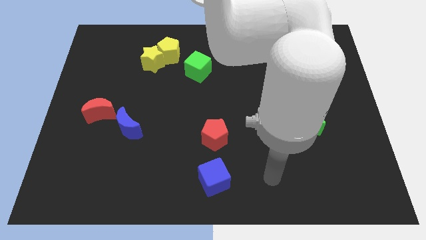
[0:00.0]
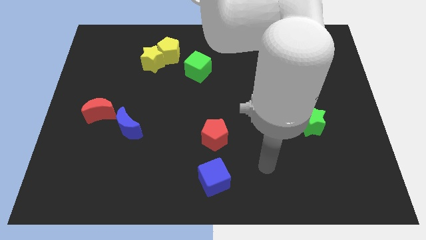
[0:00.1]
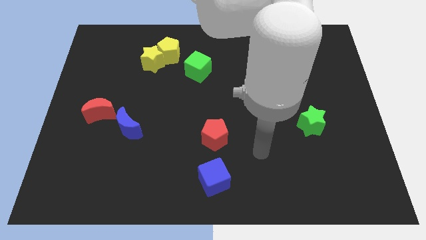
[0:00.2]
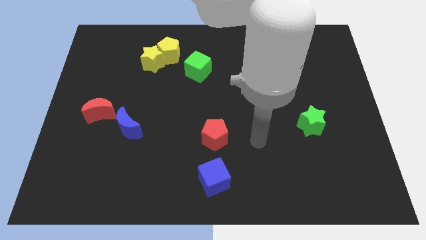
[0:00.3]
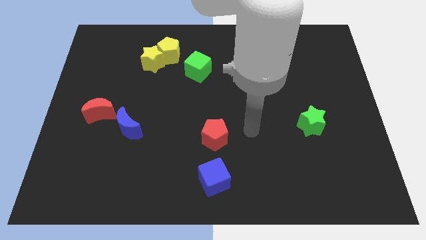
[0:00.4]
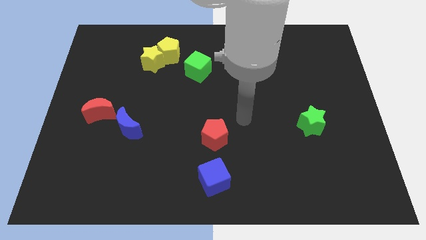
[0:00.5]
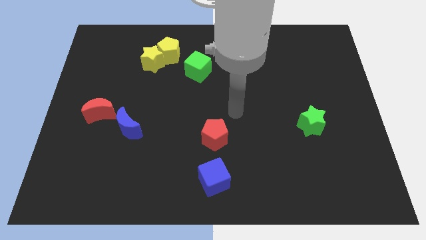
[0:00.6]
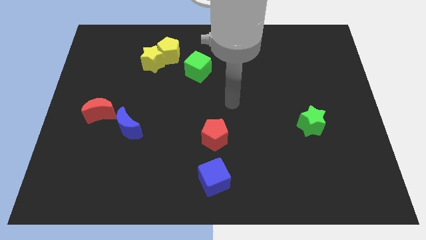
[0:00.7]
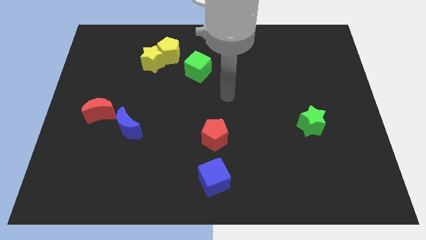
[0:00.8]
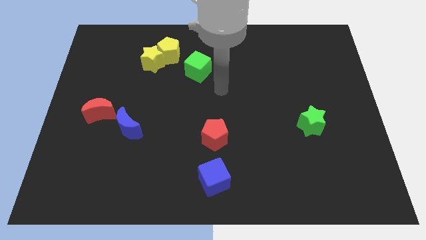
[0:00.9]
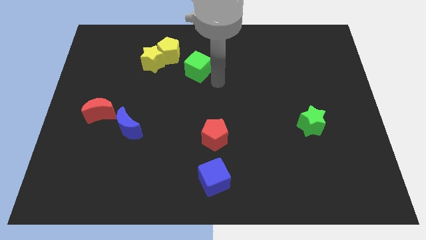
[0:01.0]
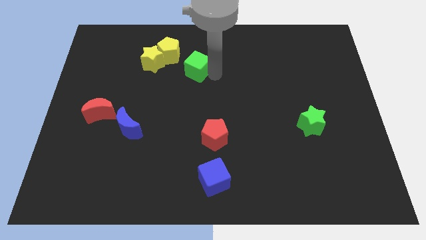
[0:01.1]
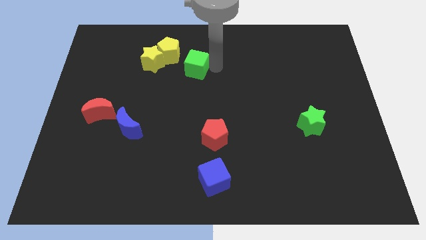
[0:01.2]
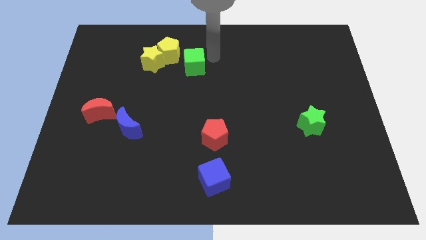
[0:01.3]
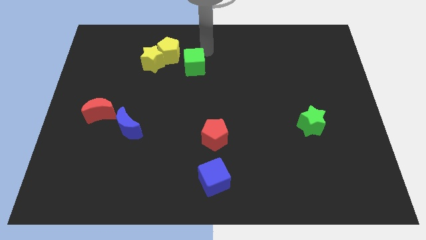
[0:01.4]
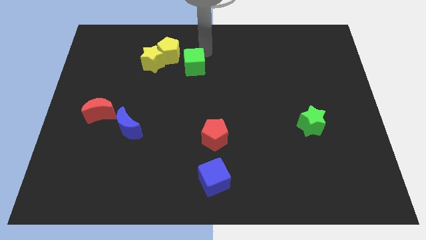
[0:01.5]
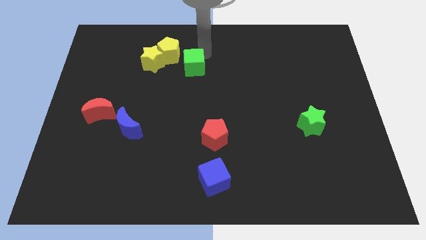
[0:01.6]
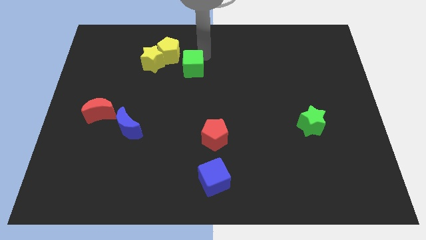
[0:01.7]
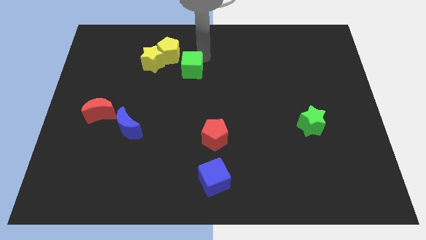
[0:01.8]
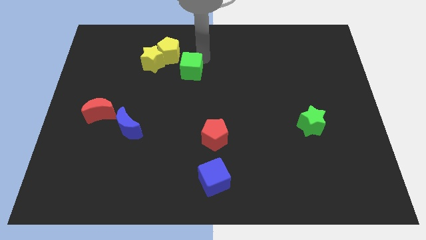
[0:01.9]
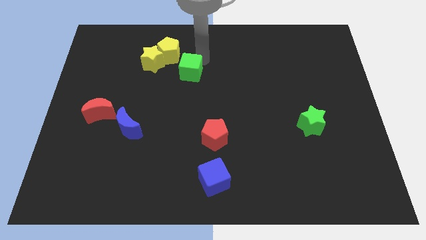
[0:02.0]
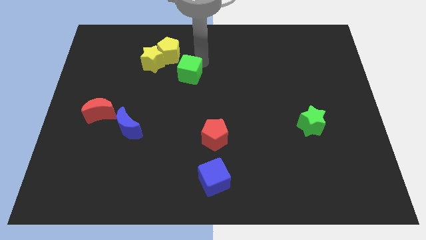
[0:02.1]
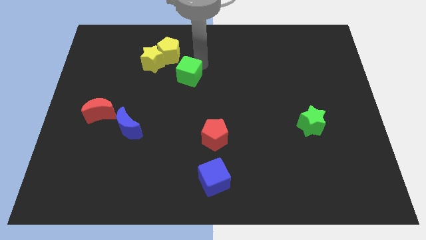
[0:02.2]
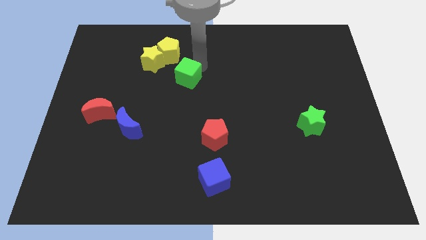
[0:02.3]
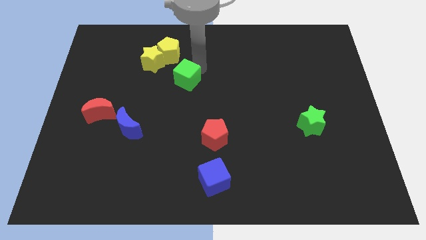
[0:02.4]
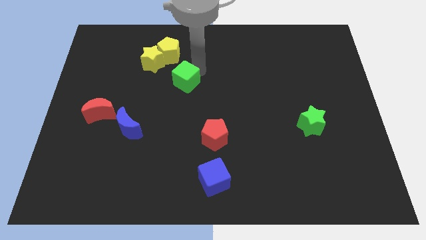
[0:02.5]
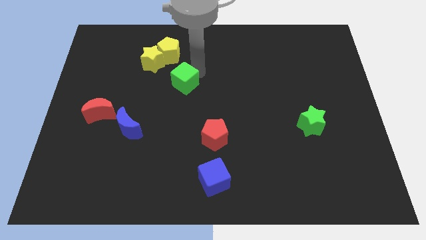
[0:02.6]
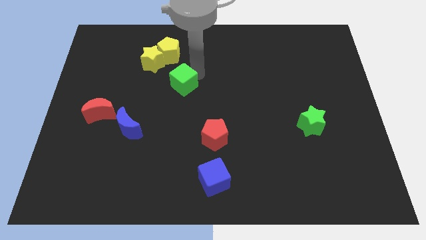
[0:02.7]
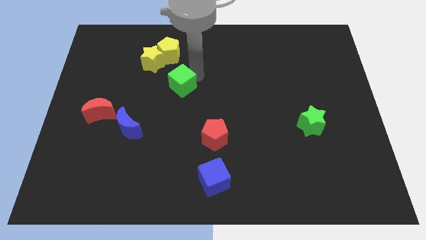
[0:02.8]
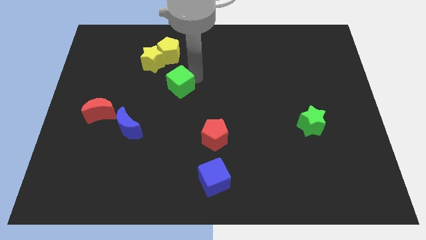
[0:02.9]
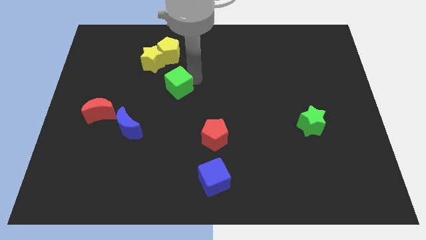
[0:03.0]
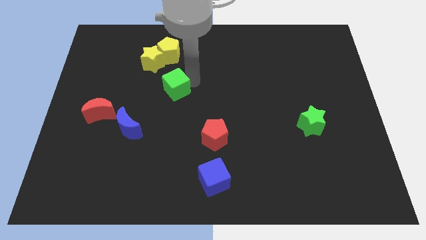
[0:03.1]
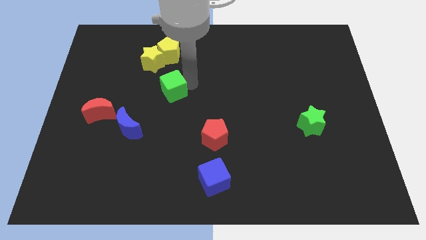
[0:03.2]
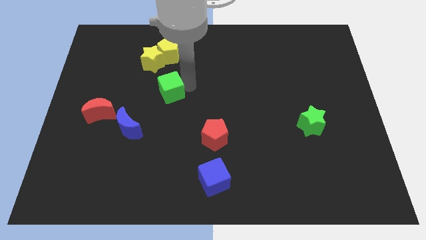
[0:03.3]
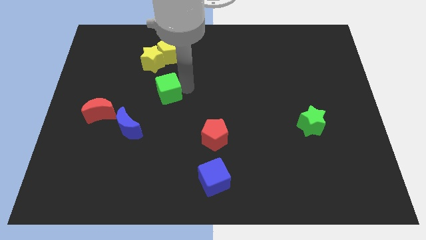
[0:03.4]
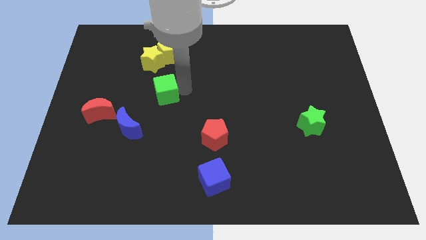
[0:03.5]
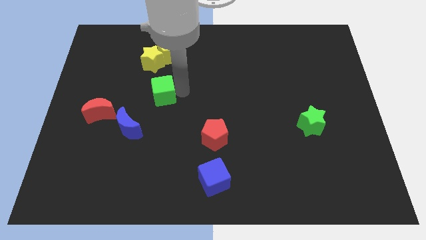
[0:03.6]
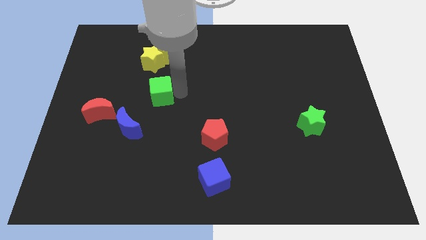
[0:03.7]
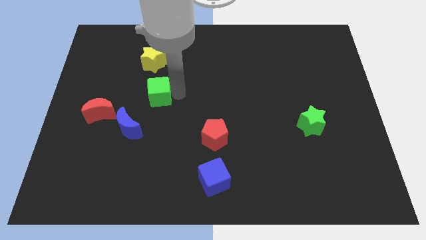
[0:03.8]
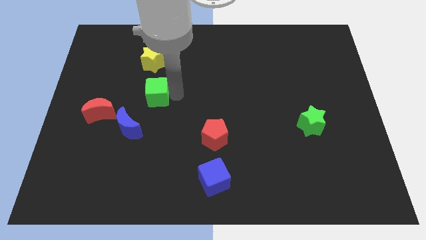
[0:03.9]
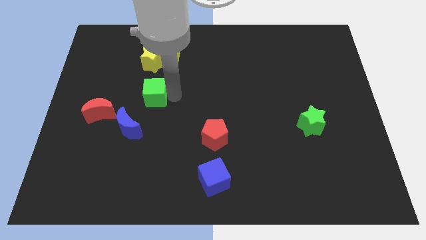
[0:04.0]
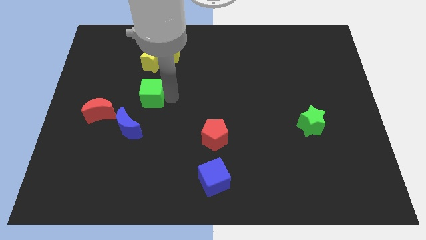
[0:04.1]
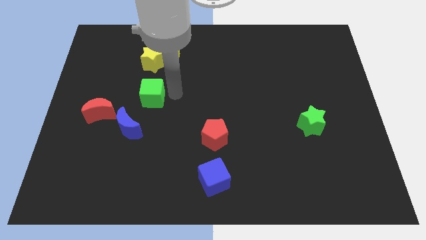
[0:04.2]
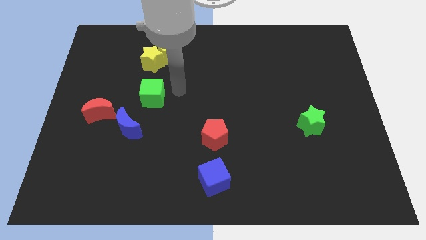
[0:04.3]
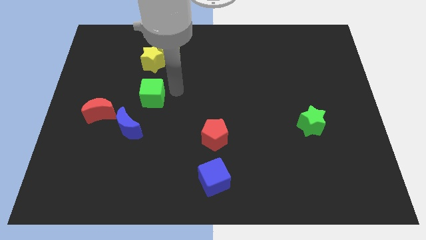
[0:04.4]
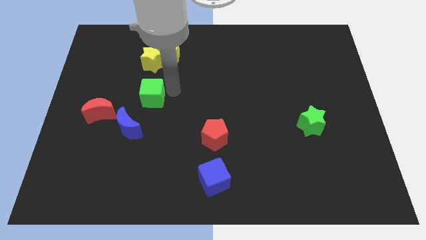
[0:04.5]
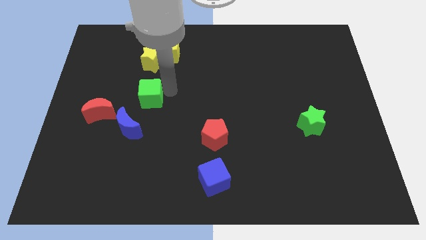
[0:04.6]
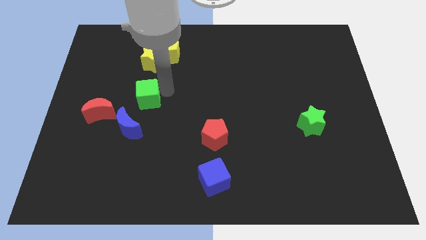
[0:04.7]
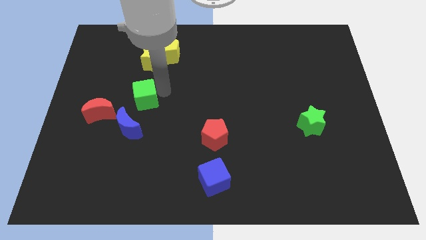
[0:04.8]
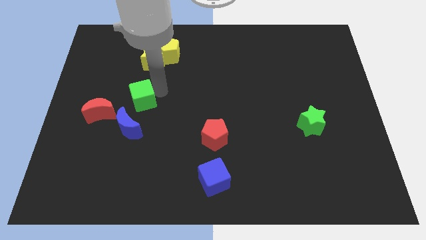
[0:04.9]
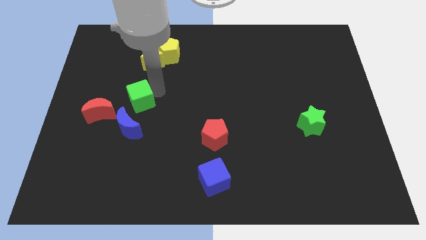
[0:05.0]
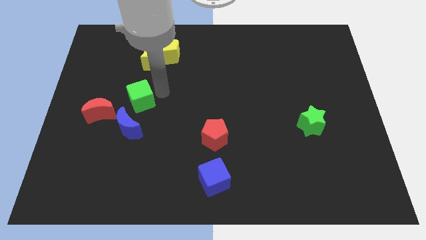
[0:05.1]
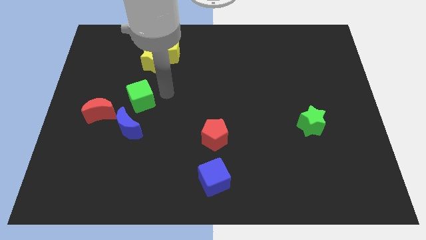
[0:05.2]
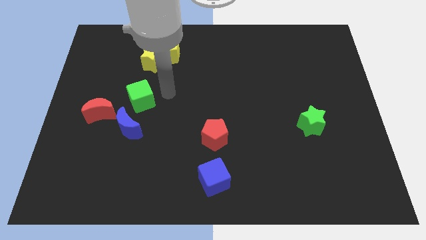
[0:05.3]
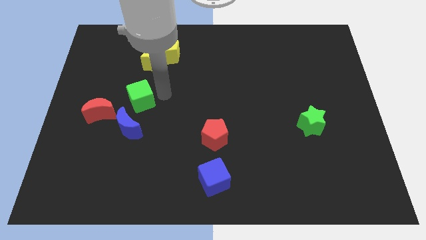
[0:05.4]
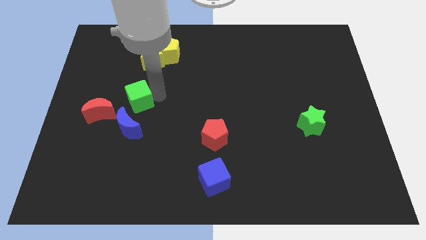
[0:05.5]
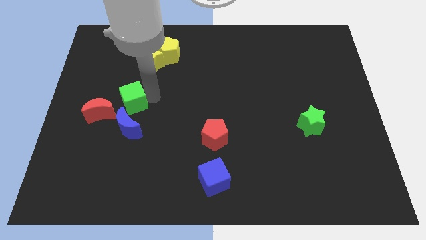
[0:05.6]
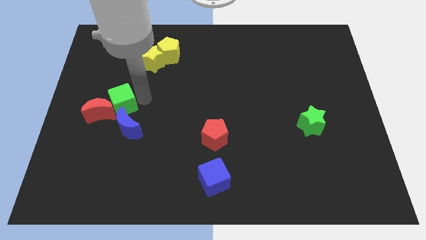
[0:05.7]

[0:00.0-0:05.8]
push the green cube towards the red moon

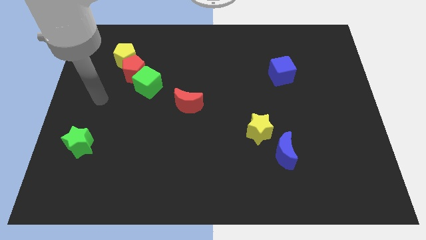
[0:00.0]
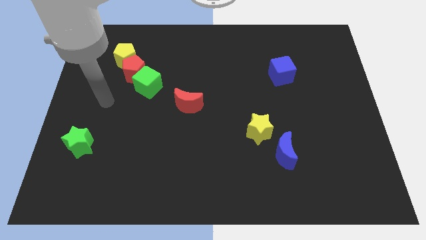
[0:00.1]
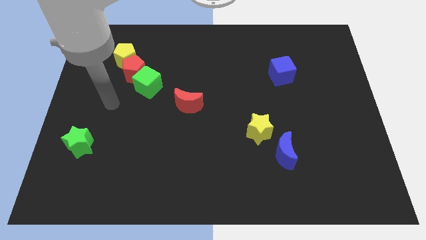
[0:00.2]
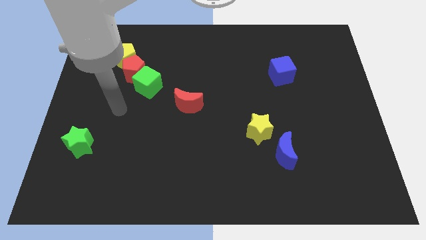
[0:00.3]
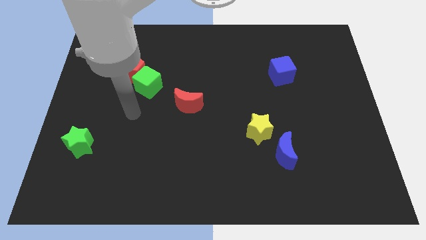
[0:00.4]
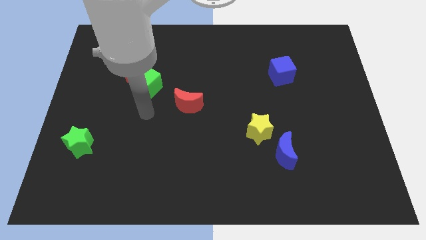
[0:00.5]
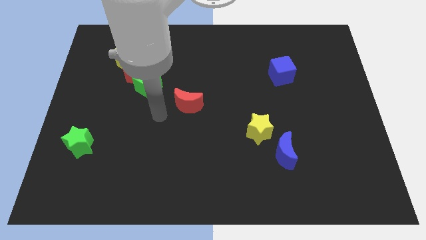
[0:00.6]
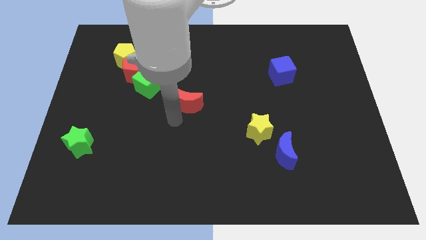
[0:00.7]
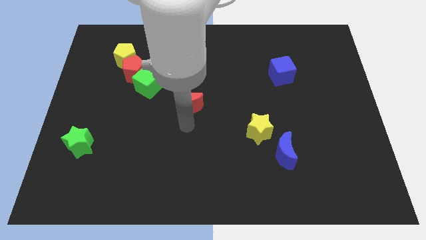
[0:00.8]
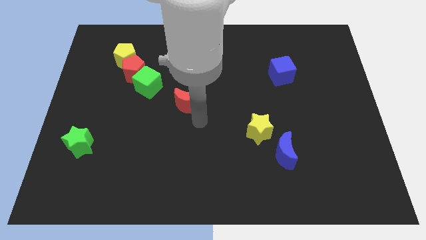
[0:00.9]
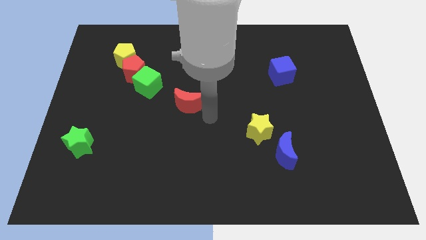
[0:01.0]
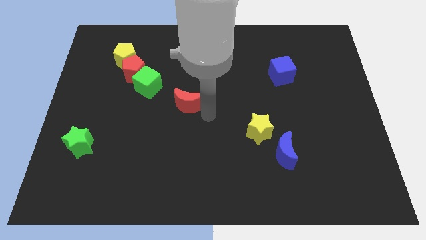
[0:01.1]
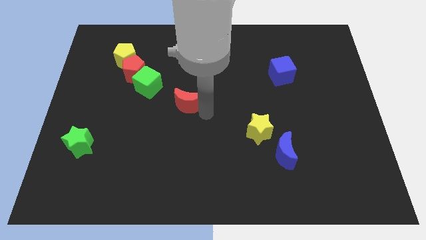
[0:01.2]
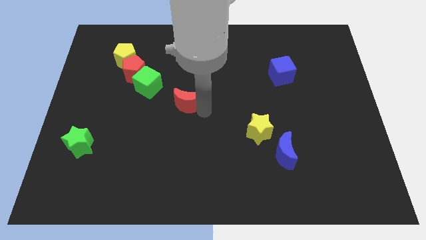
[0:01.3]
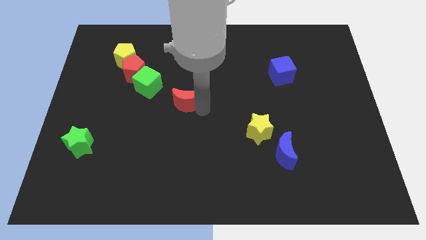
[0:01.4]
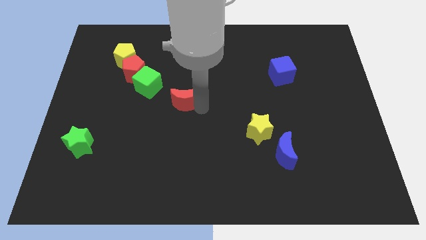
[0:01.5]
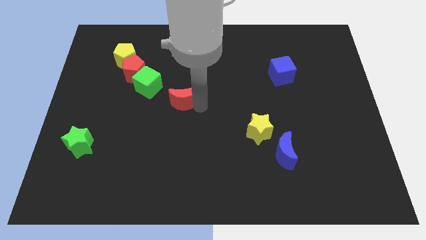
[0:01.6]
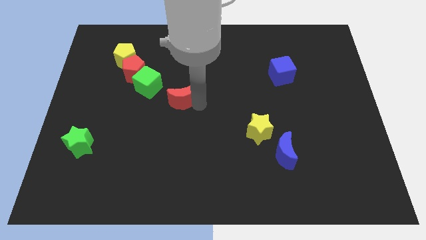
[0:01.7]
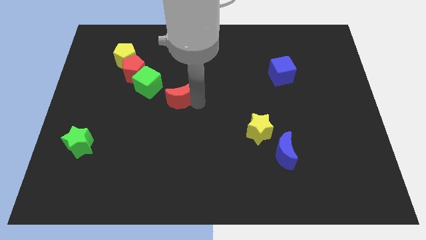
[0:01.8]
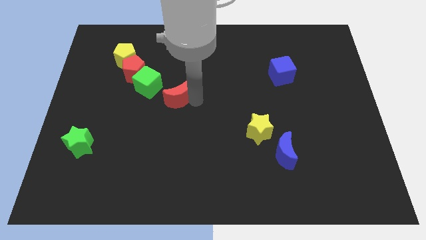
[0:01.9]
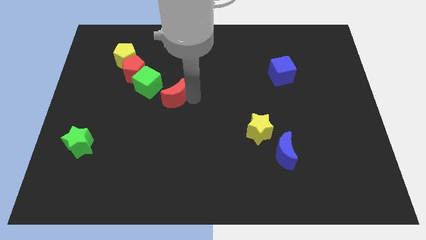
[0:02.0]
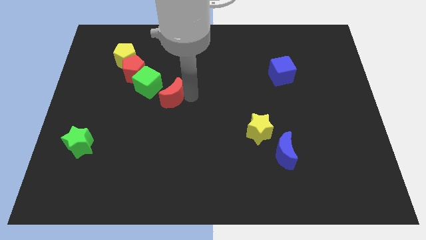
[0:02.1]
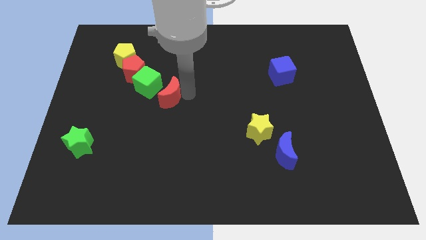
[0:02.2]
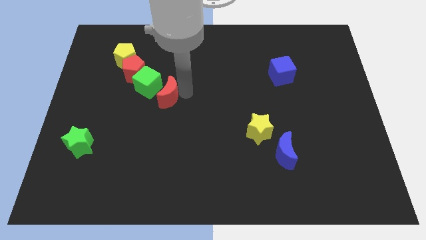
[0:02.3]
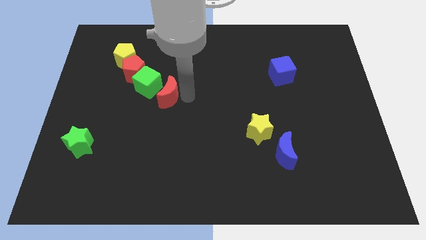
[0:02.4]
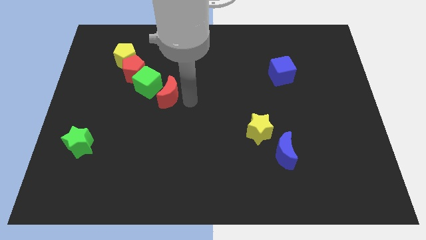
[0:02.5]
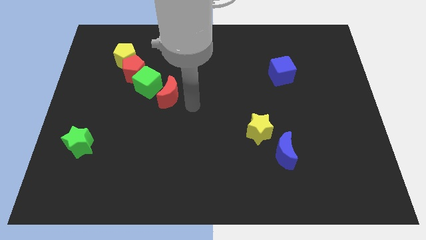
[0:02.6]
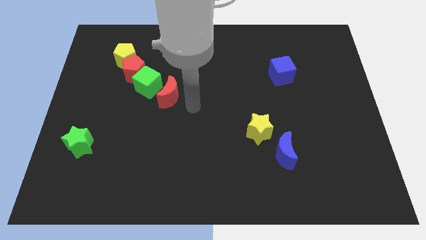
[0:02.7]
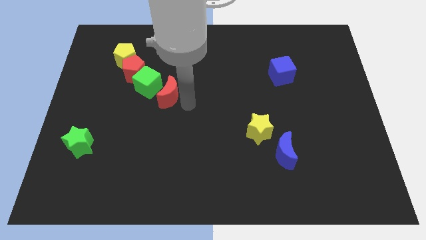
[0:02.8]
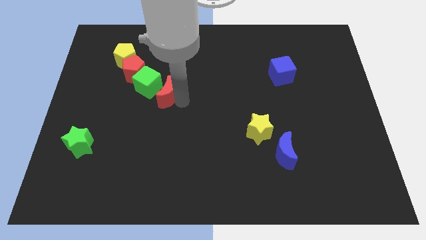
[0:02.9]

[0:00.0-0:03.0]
slide the red moon to the green cube
